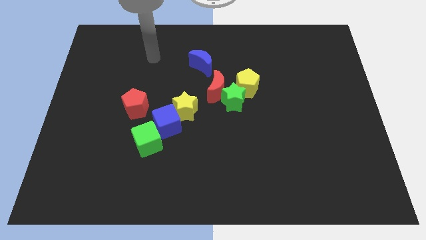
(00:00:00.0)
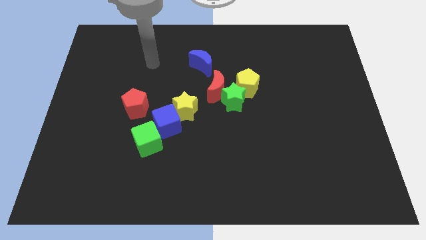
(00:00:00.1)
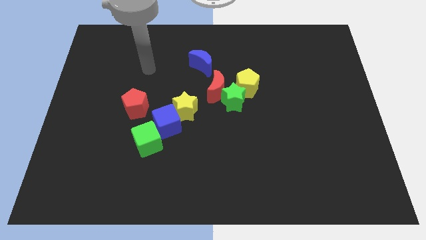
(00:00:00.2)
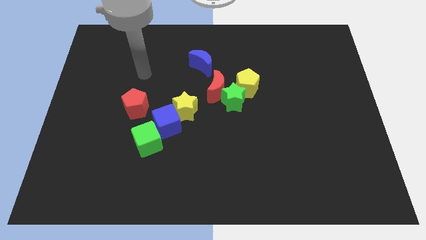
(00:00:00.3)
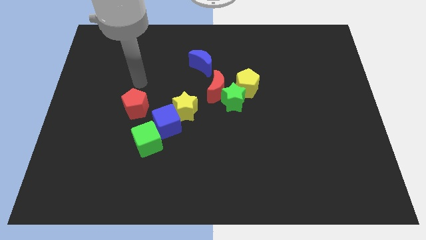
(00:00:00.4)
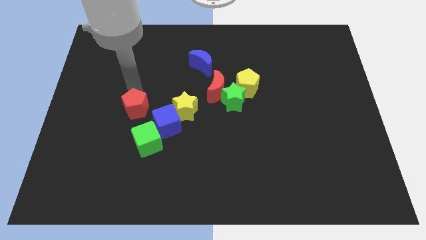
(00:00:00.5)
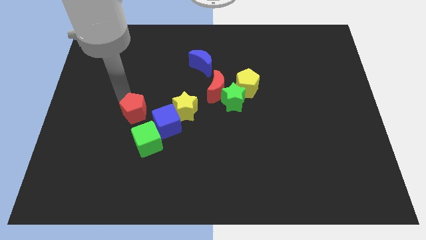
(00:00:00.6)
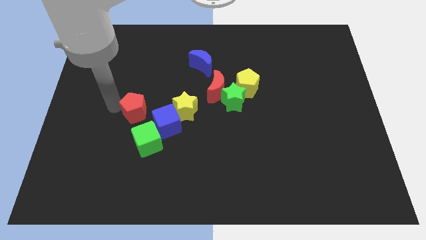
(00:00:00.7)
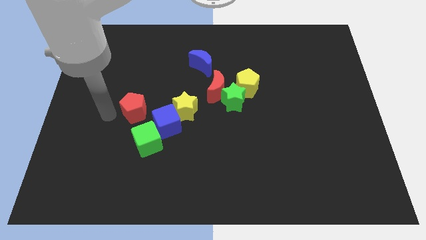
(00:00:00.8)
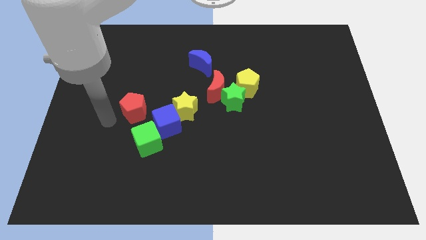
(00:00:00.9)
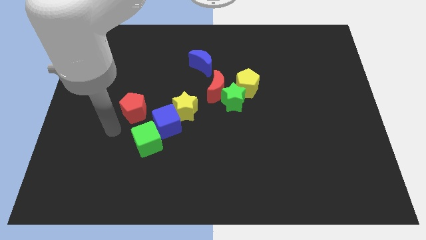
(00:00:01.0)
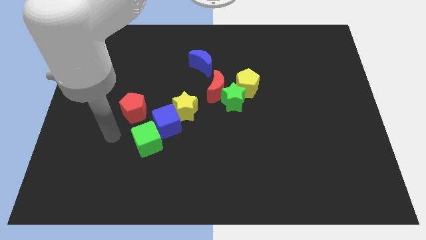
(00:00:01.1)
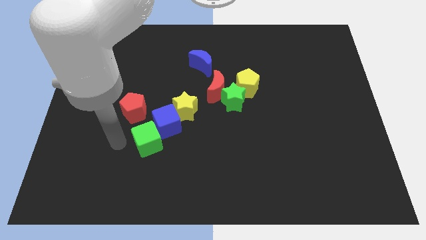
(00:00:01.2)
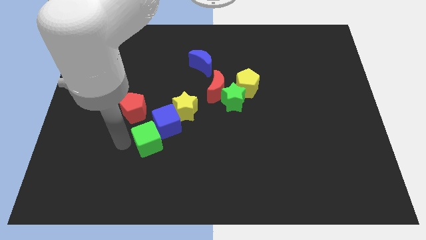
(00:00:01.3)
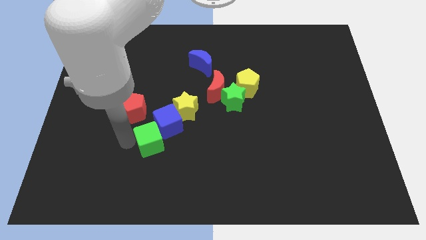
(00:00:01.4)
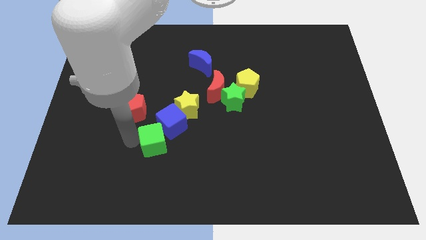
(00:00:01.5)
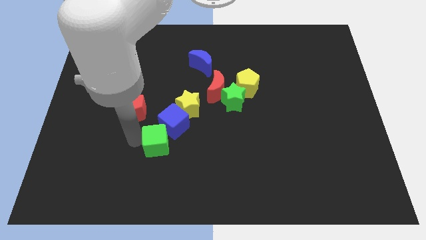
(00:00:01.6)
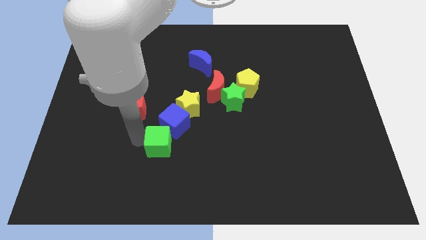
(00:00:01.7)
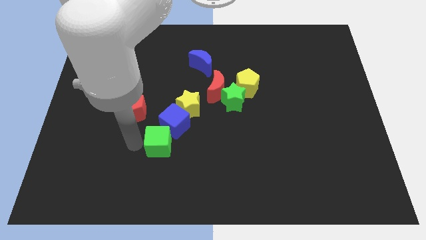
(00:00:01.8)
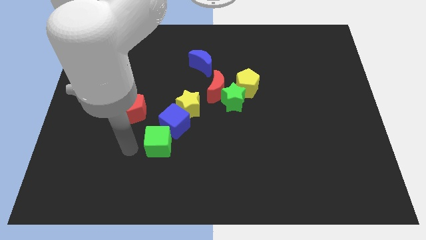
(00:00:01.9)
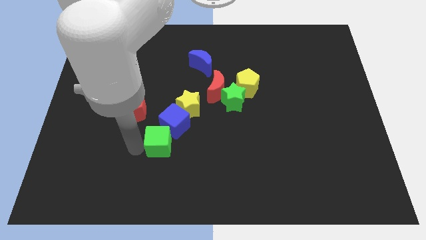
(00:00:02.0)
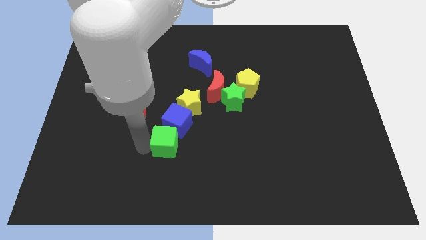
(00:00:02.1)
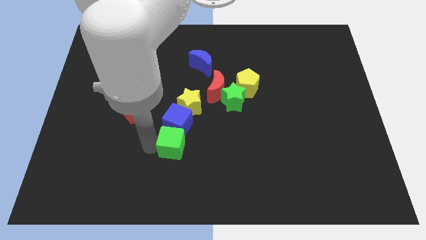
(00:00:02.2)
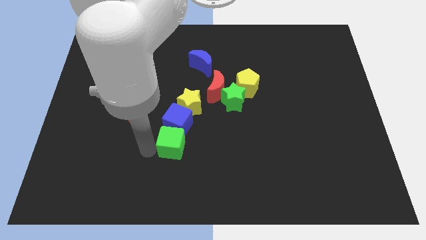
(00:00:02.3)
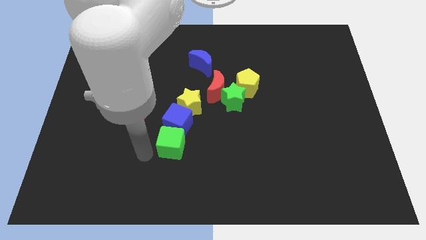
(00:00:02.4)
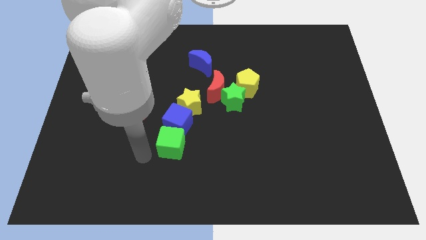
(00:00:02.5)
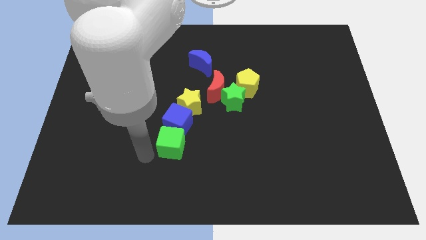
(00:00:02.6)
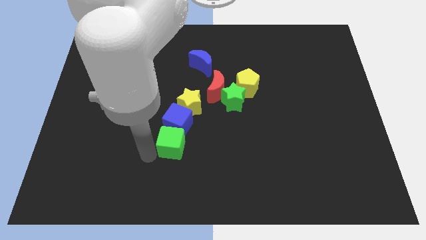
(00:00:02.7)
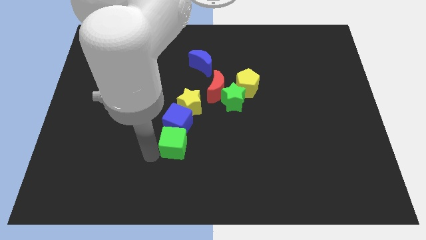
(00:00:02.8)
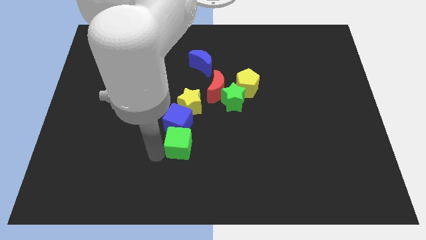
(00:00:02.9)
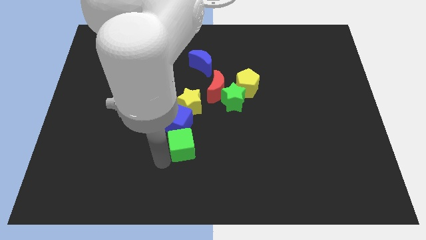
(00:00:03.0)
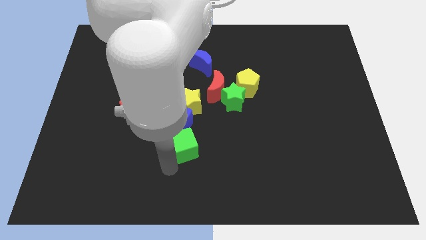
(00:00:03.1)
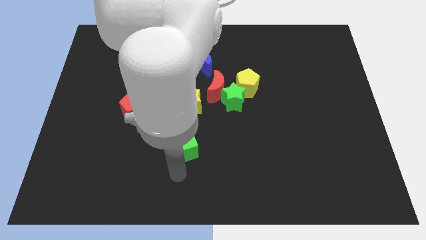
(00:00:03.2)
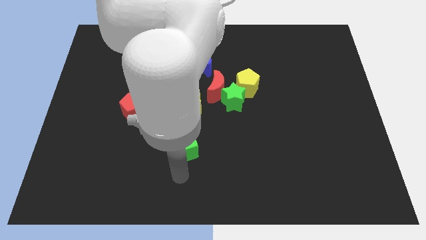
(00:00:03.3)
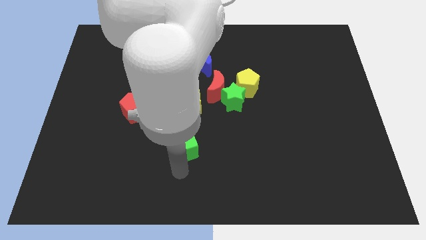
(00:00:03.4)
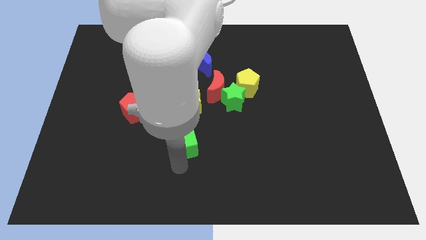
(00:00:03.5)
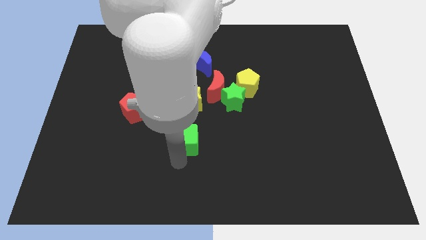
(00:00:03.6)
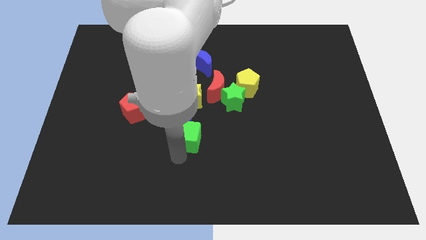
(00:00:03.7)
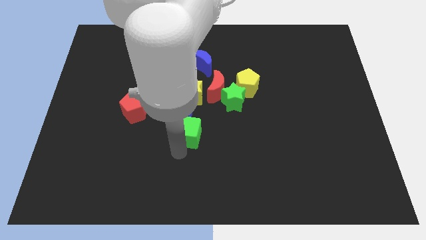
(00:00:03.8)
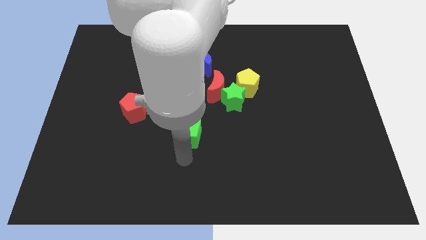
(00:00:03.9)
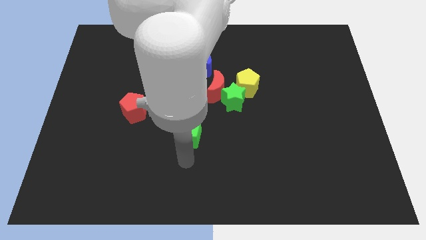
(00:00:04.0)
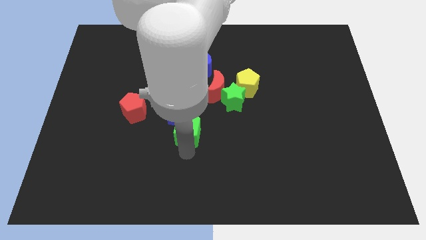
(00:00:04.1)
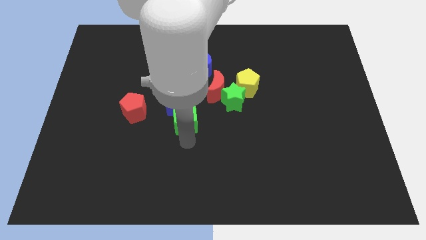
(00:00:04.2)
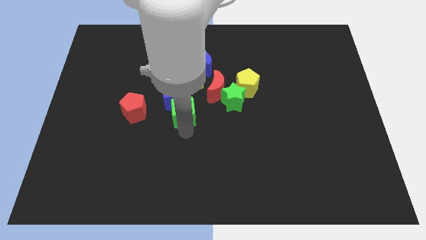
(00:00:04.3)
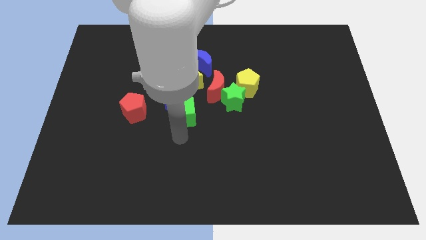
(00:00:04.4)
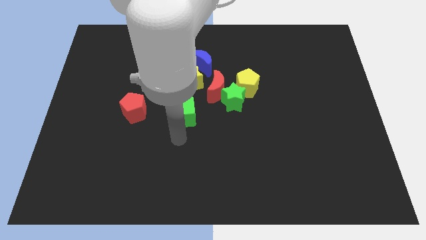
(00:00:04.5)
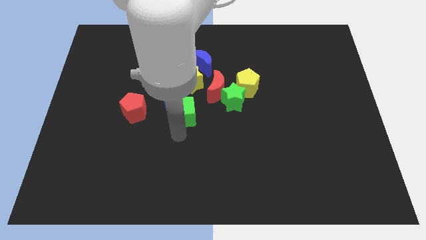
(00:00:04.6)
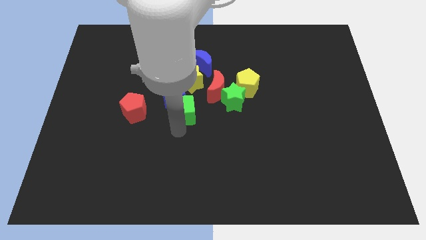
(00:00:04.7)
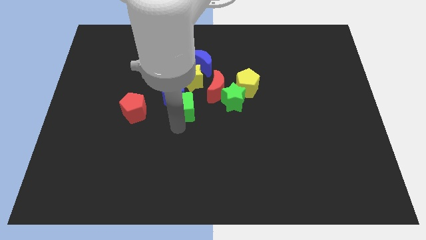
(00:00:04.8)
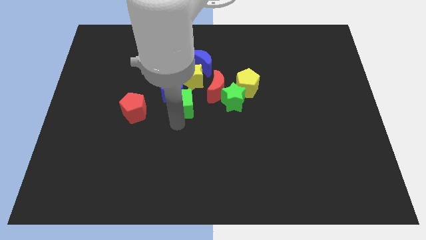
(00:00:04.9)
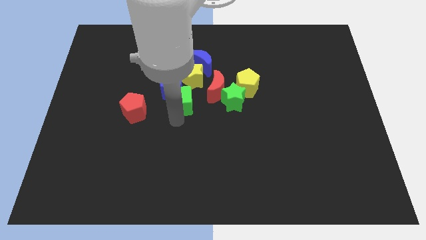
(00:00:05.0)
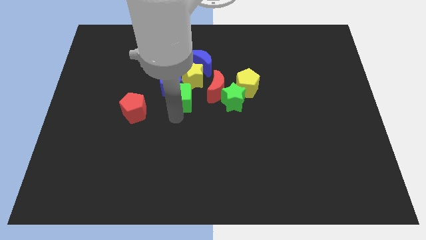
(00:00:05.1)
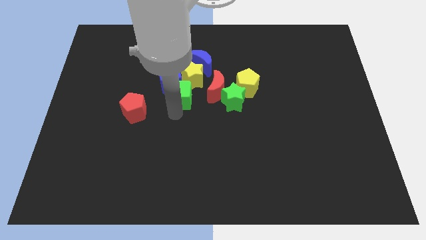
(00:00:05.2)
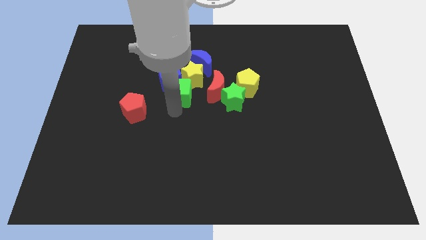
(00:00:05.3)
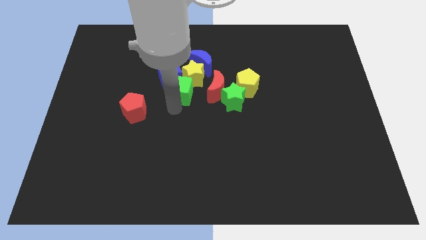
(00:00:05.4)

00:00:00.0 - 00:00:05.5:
push the green cube to the yellow star

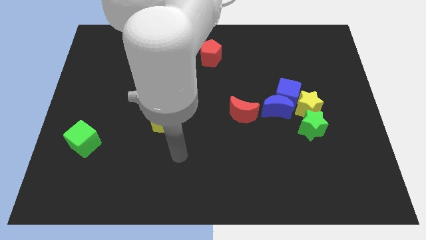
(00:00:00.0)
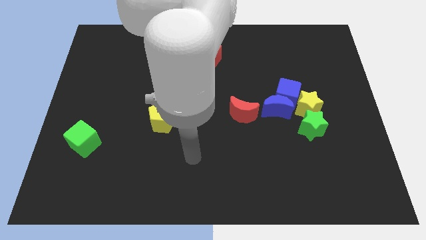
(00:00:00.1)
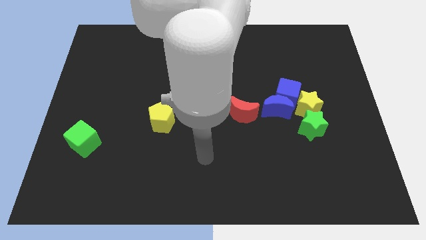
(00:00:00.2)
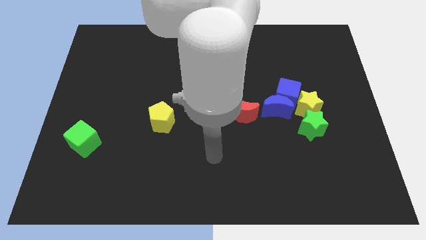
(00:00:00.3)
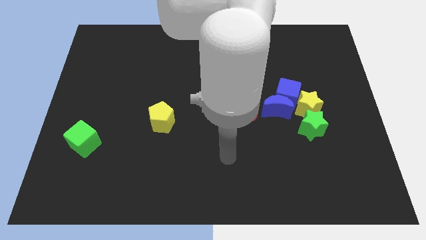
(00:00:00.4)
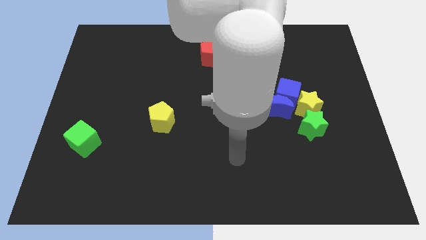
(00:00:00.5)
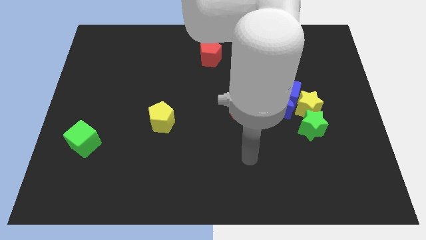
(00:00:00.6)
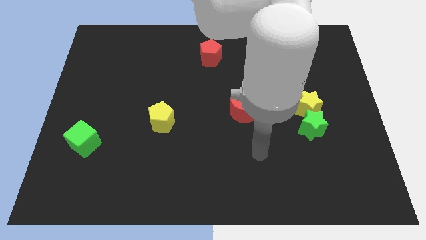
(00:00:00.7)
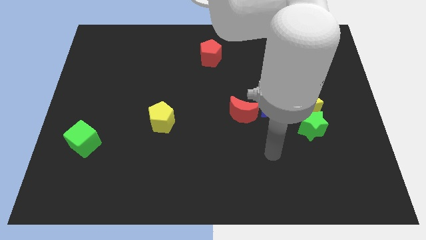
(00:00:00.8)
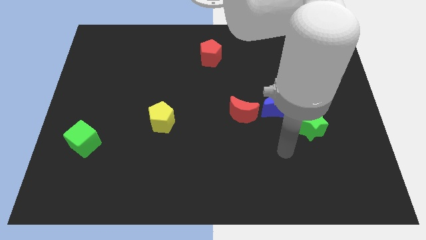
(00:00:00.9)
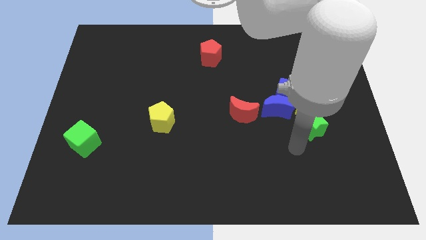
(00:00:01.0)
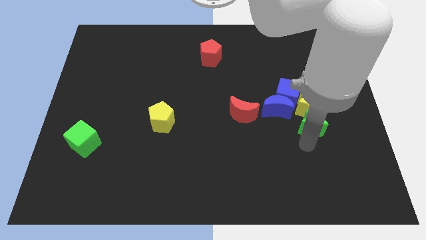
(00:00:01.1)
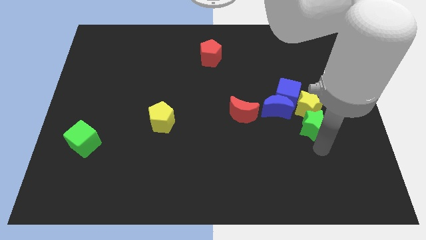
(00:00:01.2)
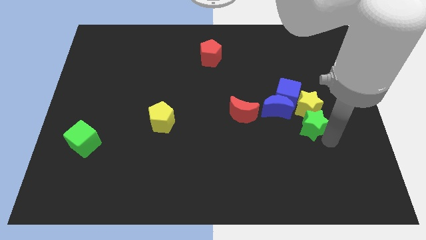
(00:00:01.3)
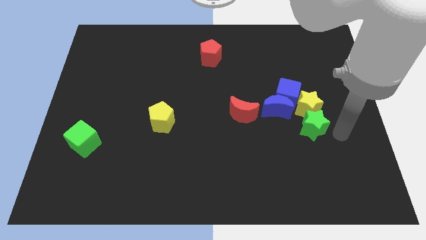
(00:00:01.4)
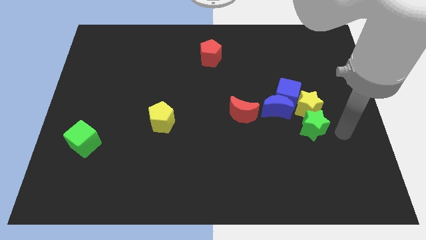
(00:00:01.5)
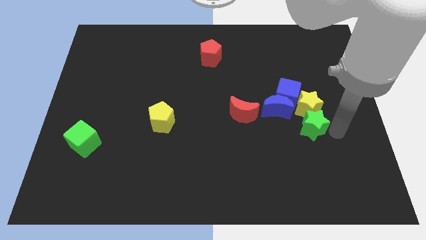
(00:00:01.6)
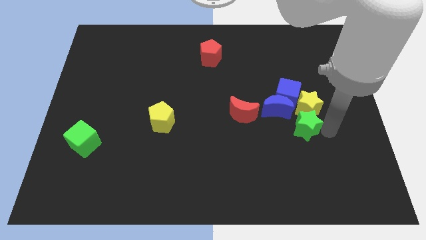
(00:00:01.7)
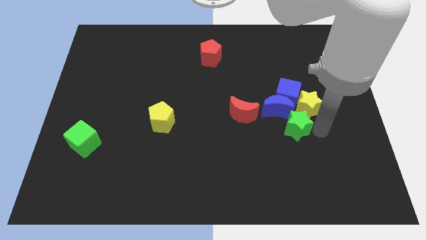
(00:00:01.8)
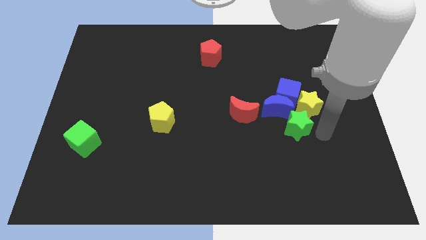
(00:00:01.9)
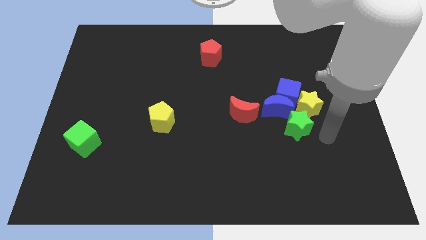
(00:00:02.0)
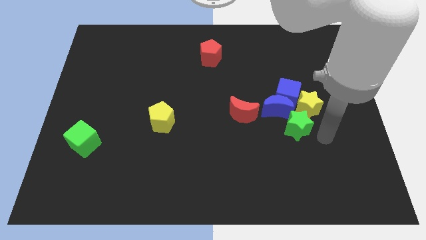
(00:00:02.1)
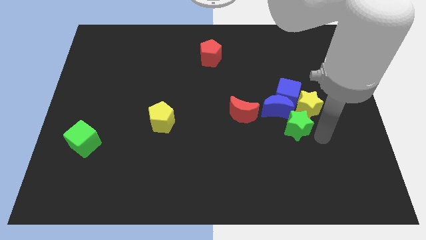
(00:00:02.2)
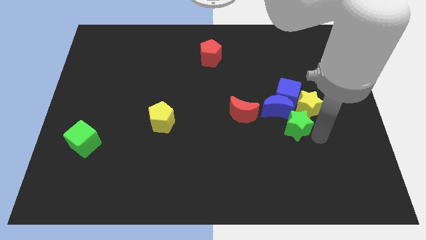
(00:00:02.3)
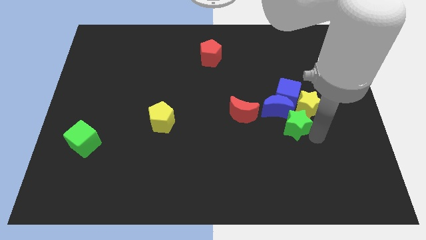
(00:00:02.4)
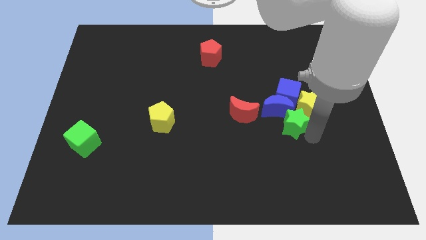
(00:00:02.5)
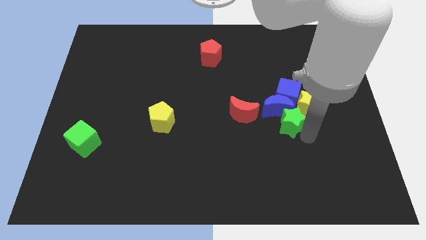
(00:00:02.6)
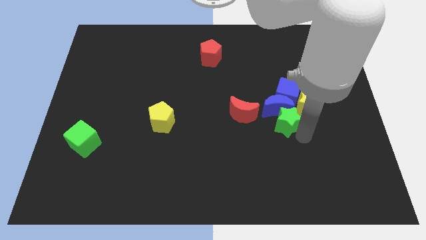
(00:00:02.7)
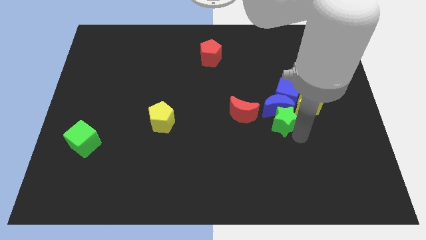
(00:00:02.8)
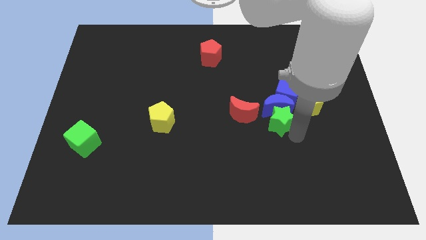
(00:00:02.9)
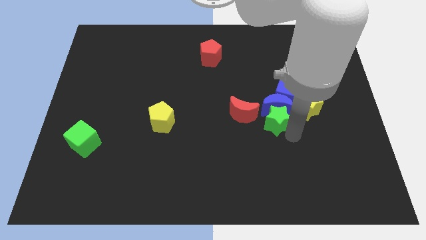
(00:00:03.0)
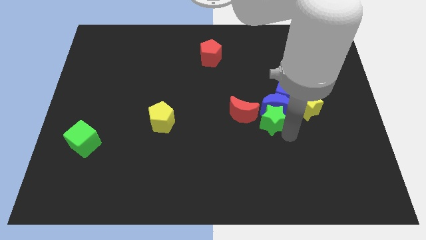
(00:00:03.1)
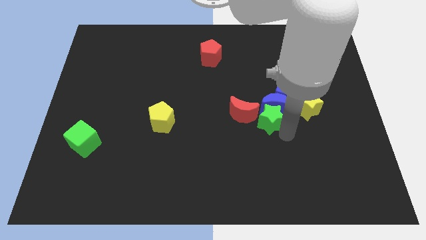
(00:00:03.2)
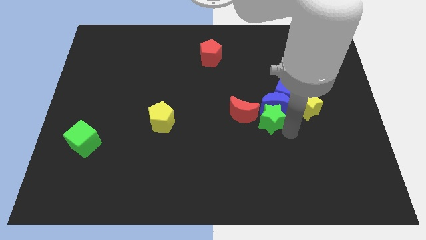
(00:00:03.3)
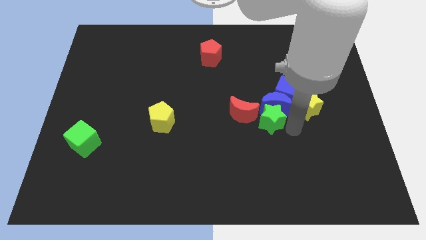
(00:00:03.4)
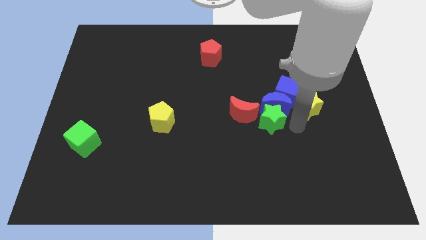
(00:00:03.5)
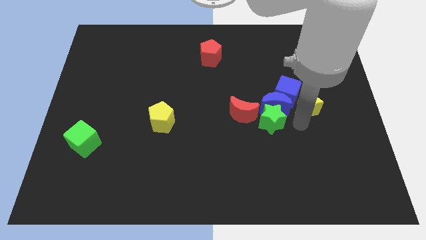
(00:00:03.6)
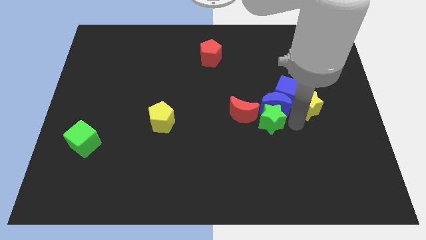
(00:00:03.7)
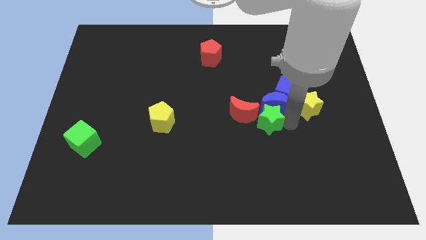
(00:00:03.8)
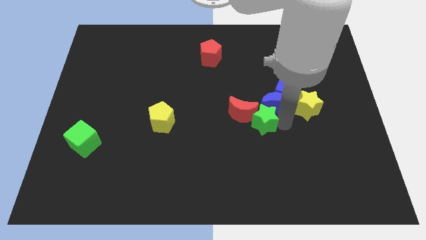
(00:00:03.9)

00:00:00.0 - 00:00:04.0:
slide the green star next to the red moon
